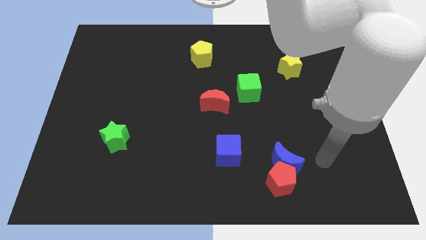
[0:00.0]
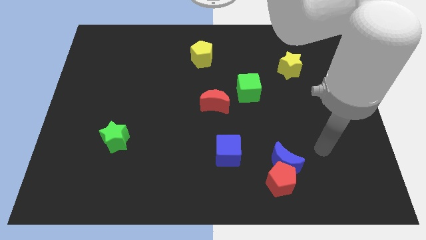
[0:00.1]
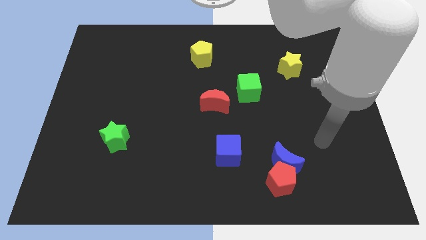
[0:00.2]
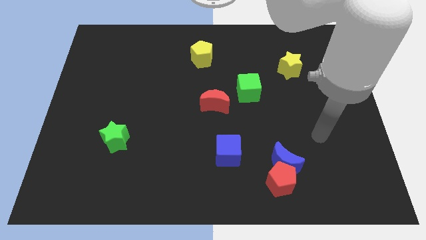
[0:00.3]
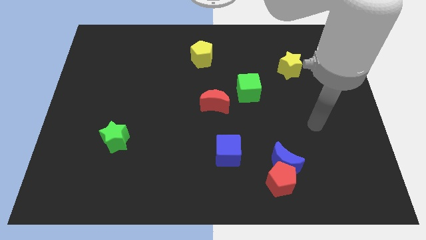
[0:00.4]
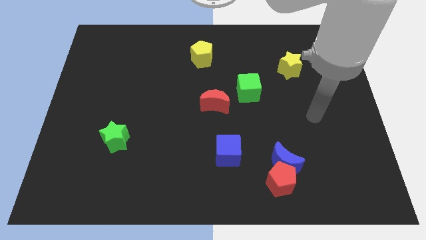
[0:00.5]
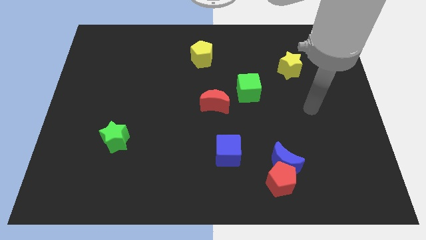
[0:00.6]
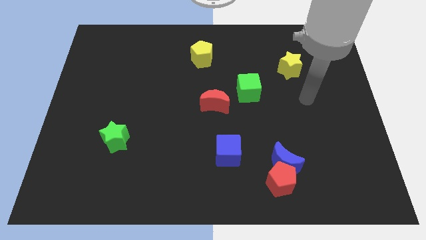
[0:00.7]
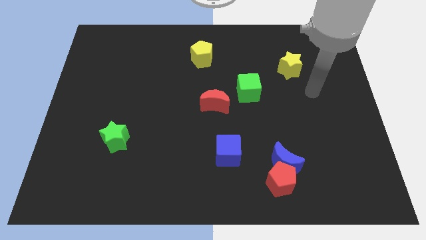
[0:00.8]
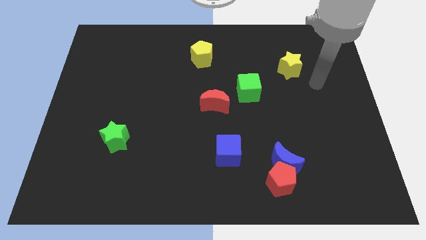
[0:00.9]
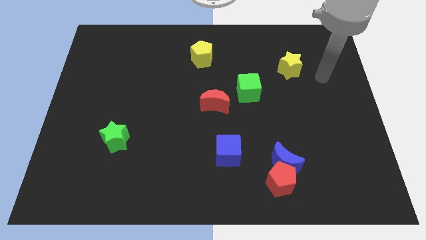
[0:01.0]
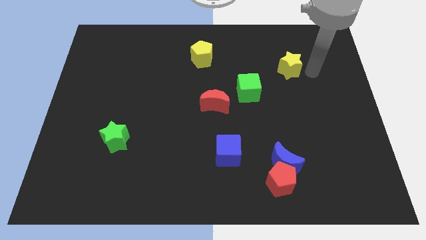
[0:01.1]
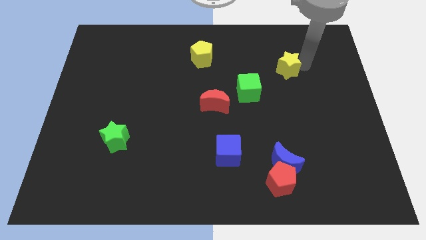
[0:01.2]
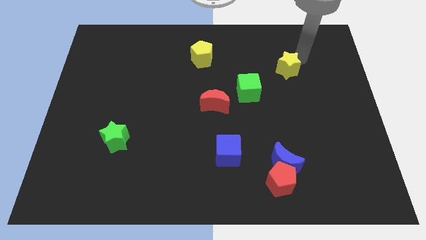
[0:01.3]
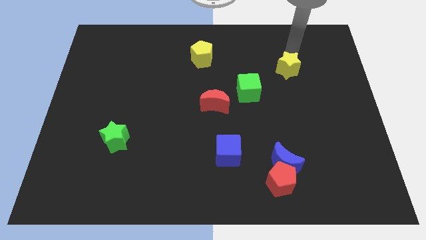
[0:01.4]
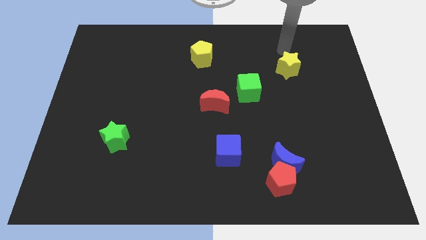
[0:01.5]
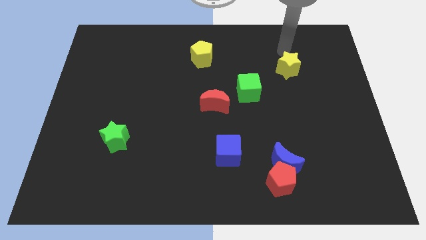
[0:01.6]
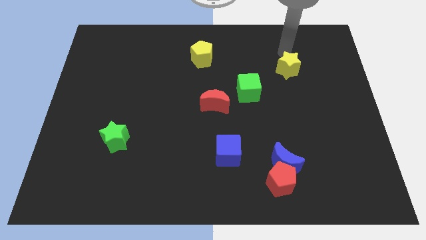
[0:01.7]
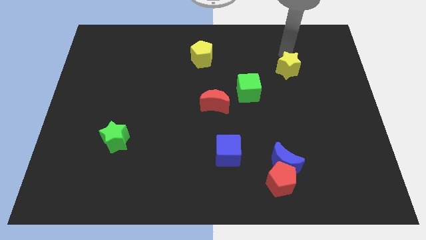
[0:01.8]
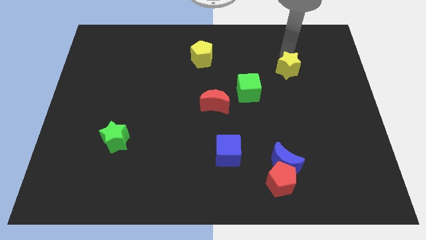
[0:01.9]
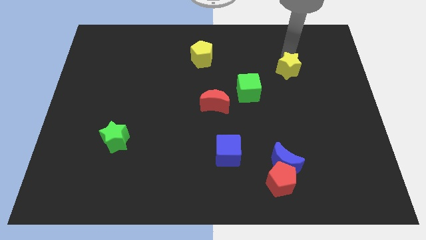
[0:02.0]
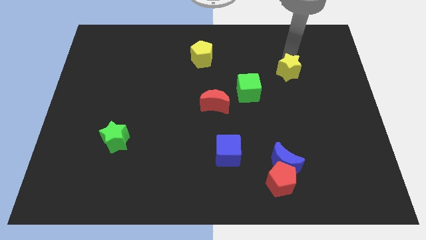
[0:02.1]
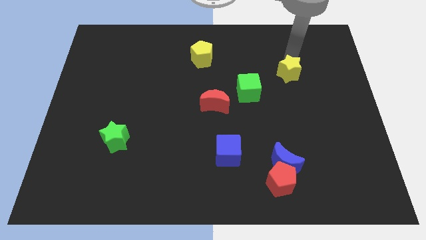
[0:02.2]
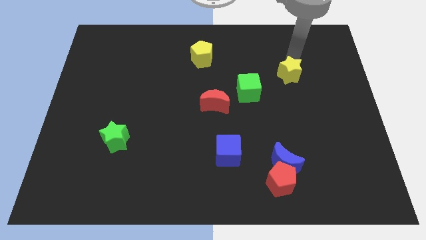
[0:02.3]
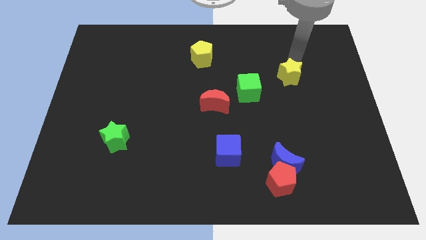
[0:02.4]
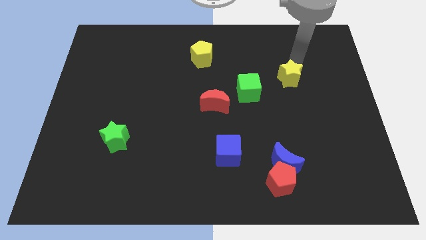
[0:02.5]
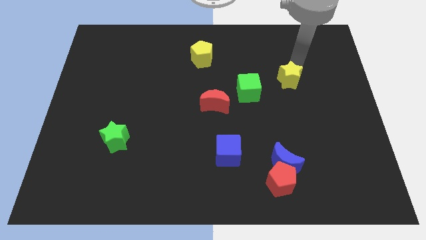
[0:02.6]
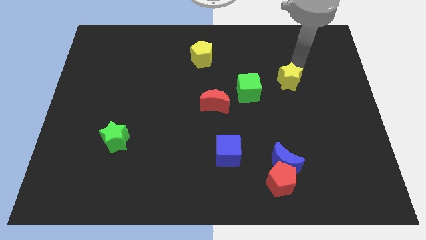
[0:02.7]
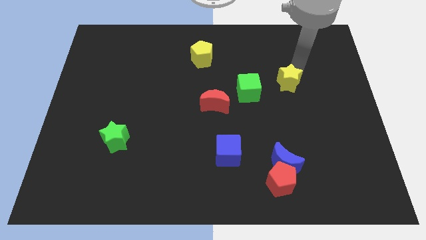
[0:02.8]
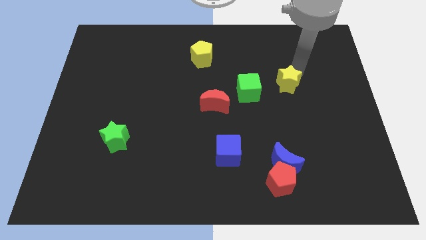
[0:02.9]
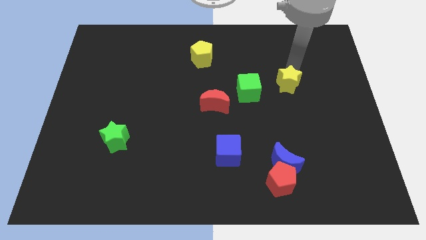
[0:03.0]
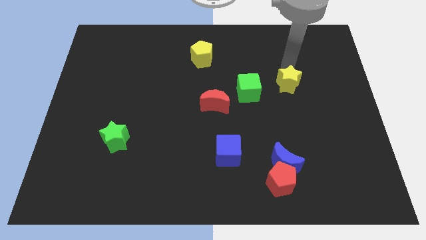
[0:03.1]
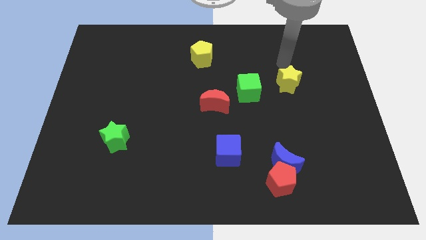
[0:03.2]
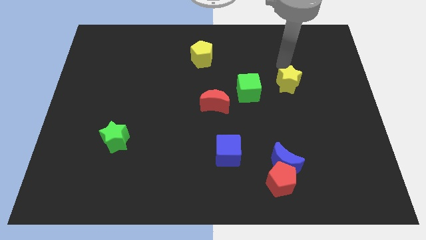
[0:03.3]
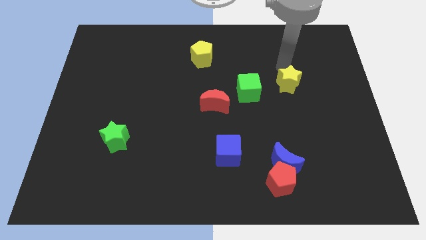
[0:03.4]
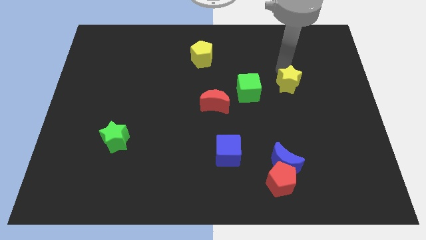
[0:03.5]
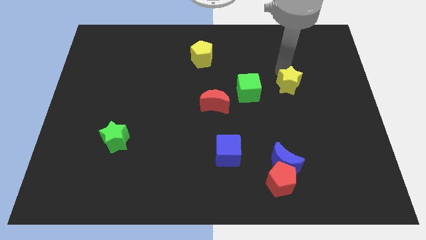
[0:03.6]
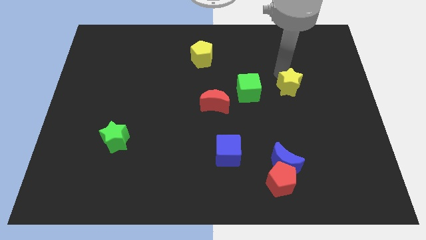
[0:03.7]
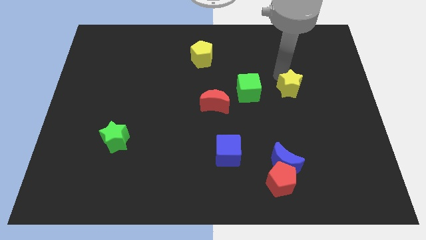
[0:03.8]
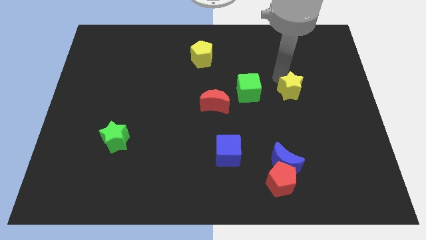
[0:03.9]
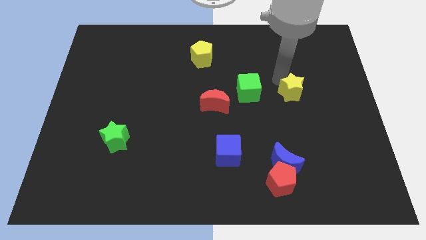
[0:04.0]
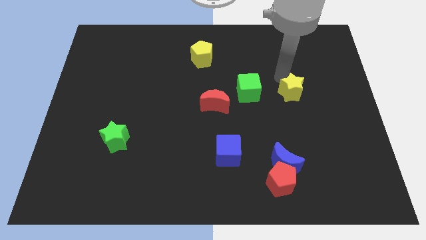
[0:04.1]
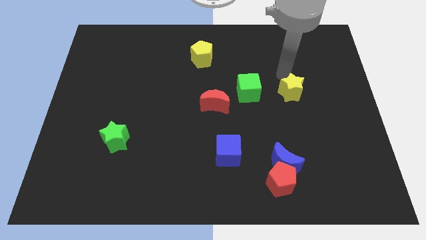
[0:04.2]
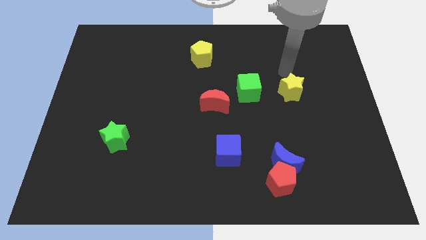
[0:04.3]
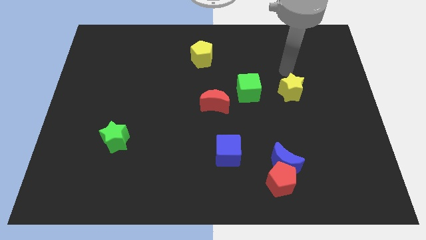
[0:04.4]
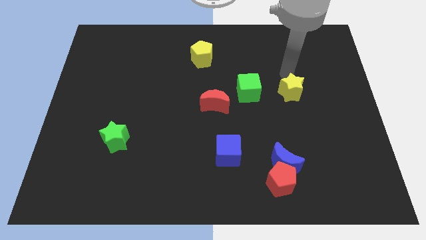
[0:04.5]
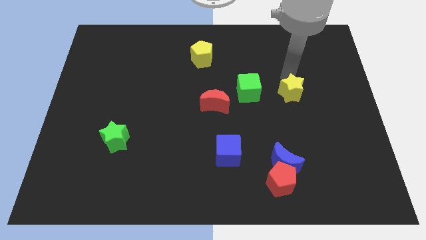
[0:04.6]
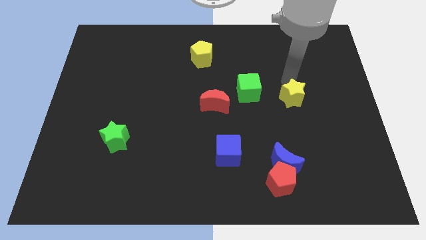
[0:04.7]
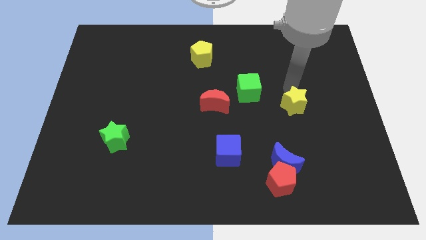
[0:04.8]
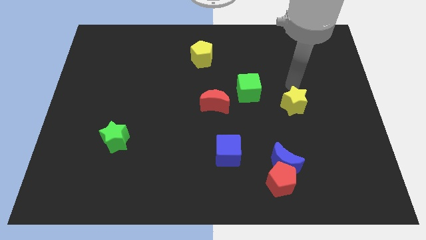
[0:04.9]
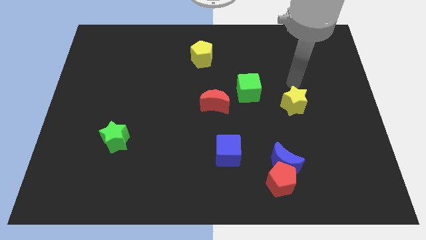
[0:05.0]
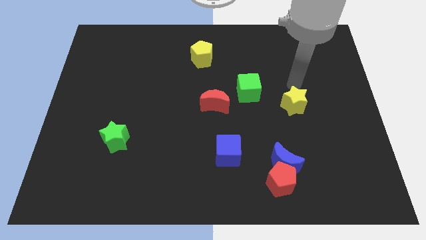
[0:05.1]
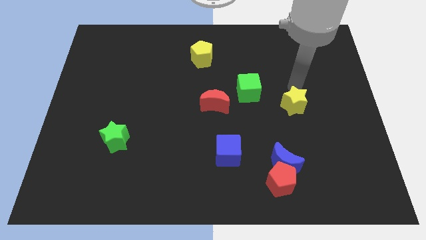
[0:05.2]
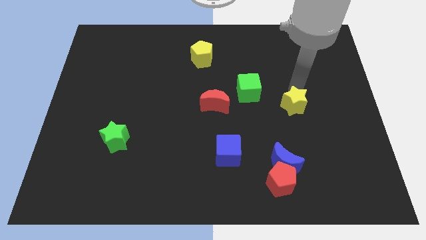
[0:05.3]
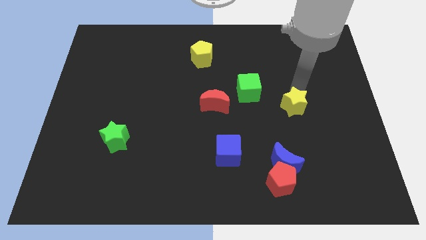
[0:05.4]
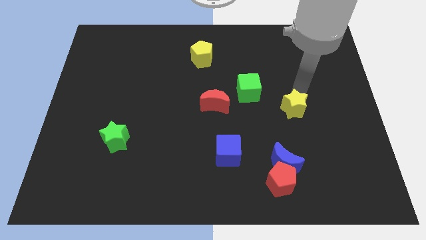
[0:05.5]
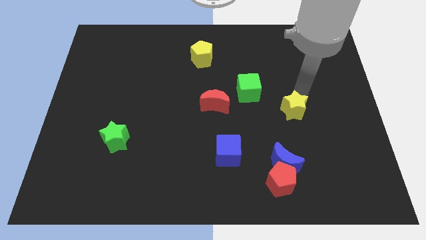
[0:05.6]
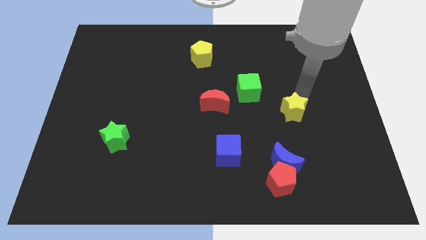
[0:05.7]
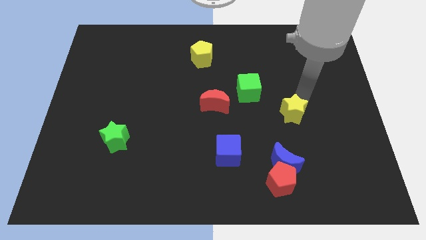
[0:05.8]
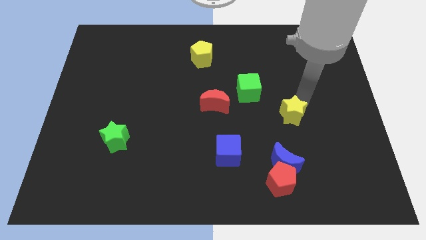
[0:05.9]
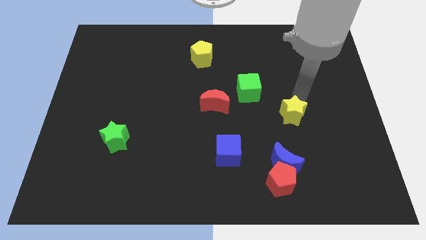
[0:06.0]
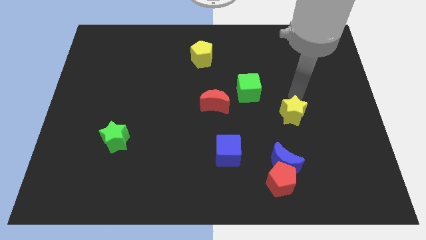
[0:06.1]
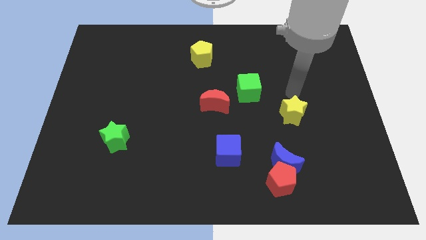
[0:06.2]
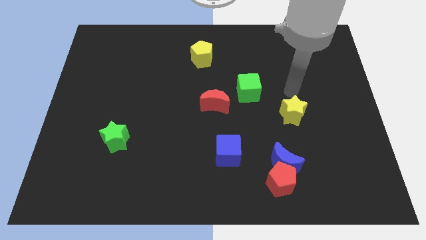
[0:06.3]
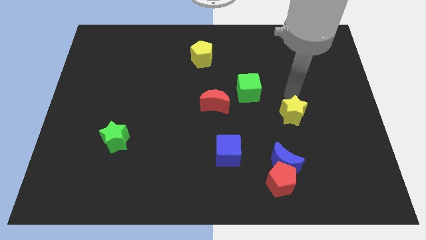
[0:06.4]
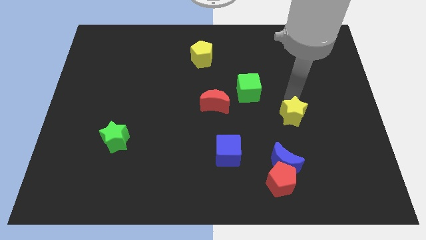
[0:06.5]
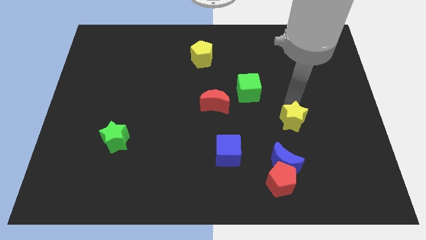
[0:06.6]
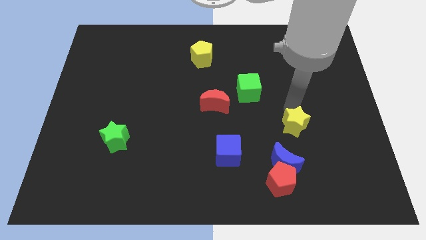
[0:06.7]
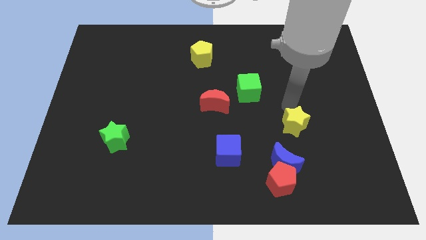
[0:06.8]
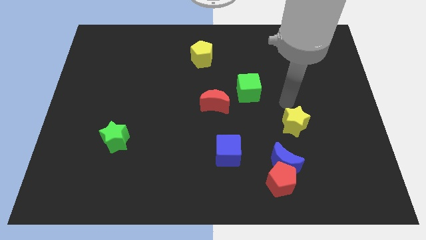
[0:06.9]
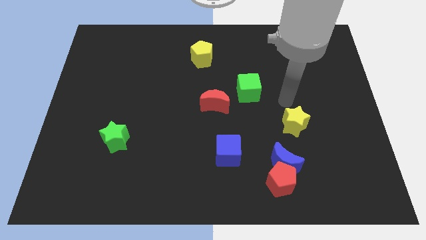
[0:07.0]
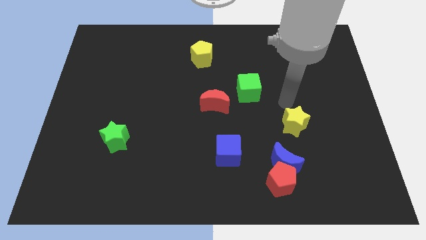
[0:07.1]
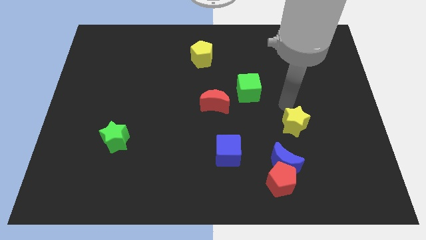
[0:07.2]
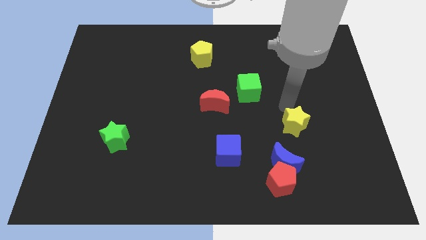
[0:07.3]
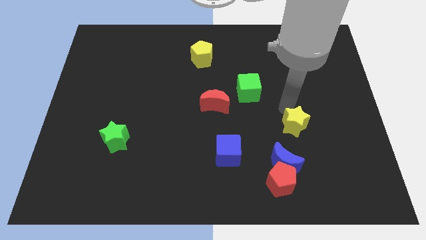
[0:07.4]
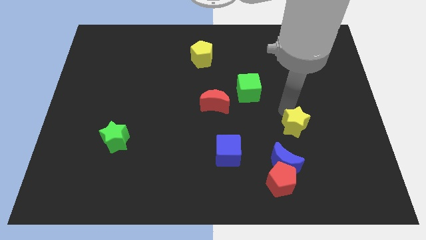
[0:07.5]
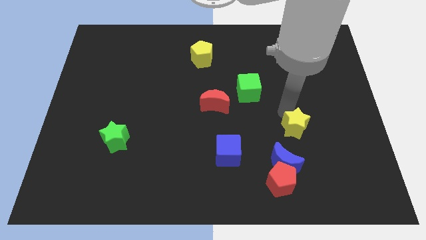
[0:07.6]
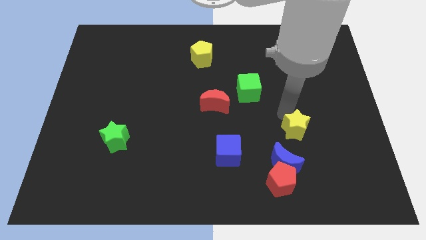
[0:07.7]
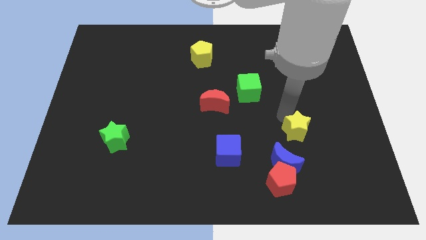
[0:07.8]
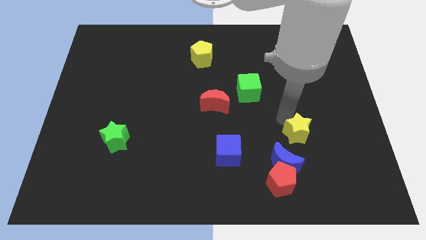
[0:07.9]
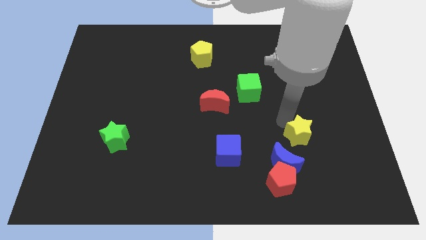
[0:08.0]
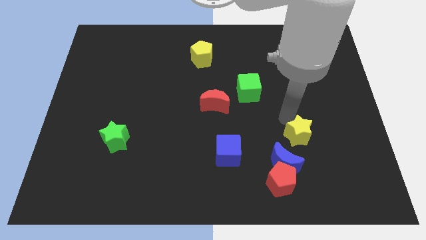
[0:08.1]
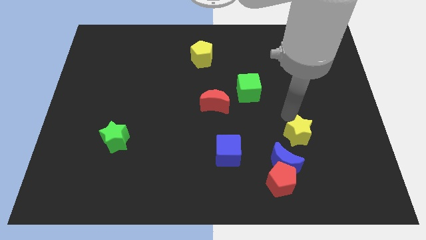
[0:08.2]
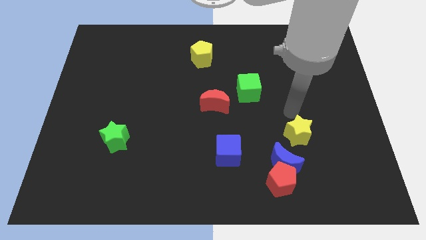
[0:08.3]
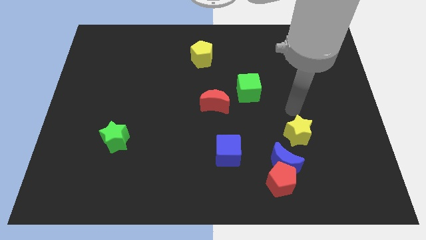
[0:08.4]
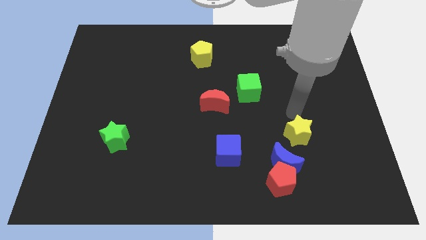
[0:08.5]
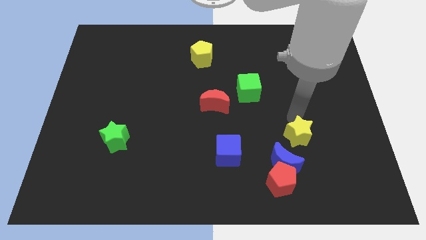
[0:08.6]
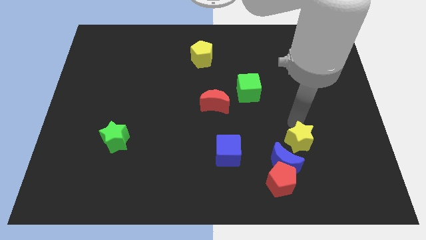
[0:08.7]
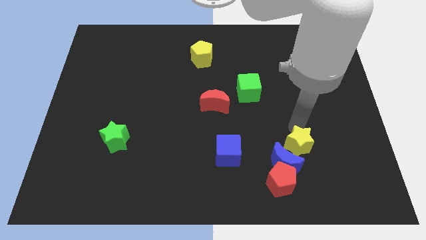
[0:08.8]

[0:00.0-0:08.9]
put the yellow star to the right side of the blue cube
